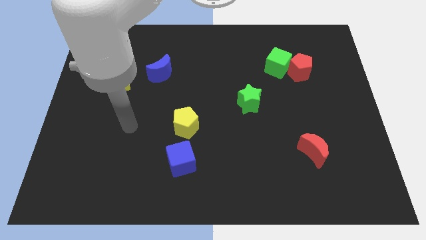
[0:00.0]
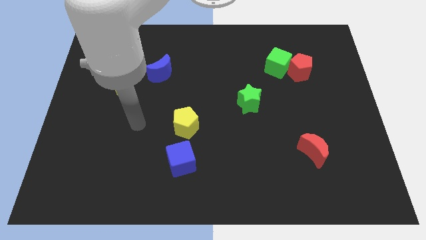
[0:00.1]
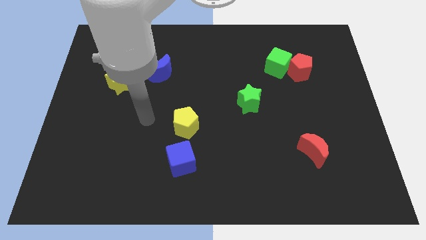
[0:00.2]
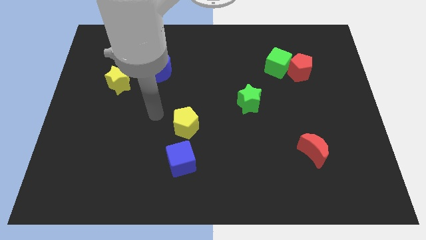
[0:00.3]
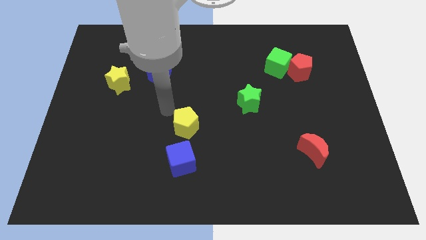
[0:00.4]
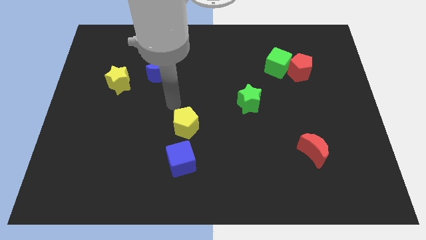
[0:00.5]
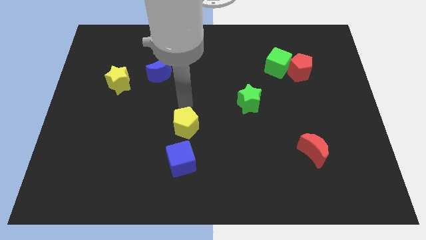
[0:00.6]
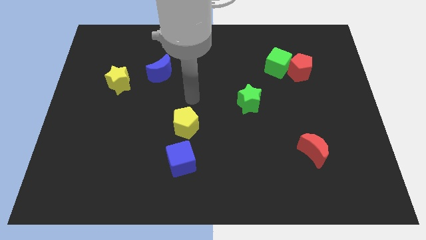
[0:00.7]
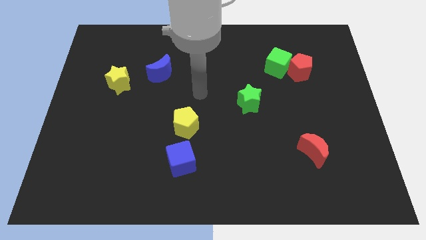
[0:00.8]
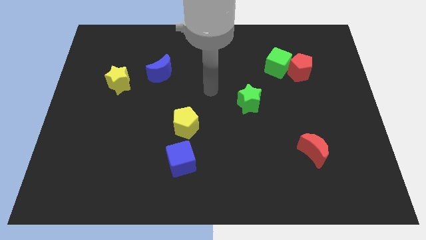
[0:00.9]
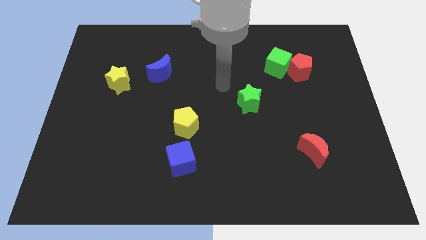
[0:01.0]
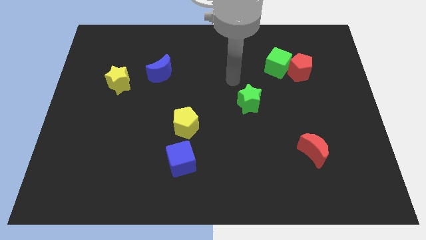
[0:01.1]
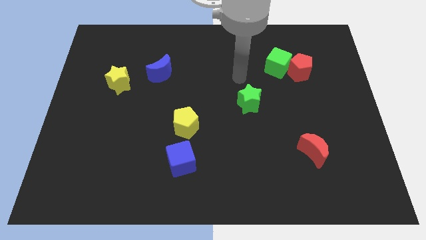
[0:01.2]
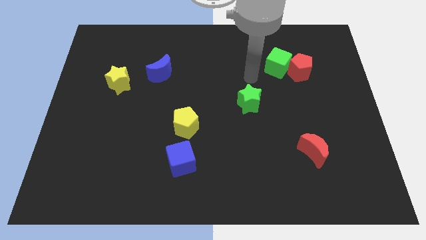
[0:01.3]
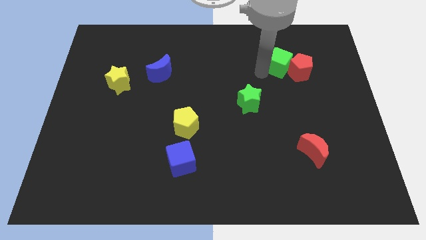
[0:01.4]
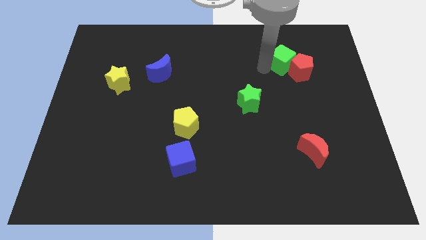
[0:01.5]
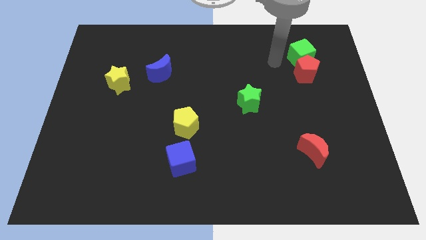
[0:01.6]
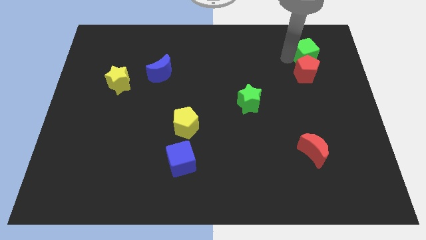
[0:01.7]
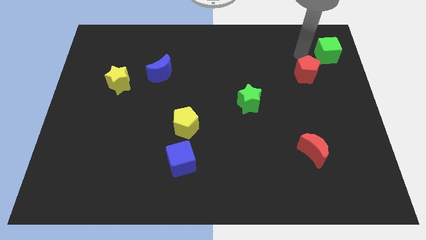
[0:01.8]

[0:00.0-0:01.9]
separate the red pentagon from the green cube

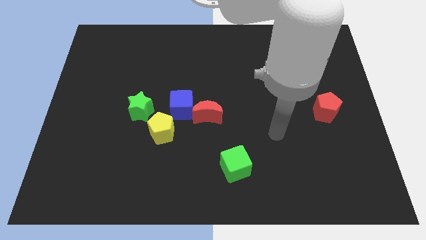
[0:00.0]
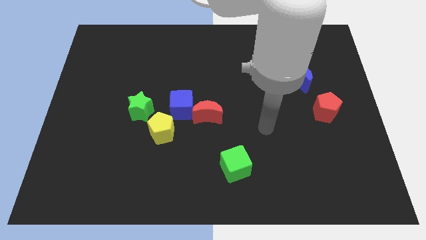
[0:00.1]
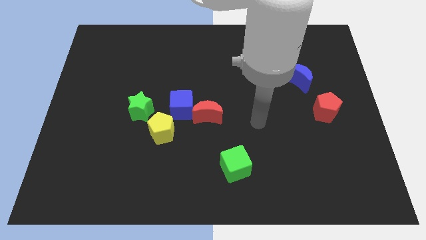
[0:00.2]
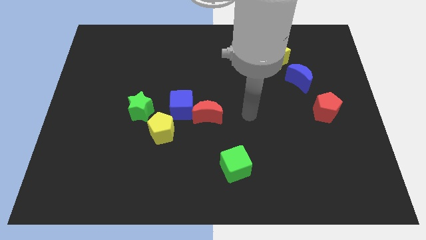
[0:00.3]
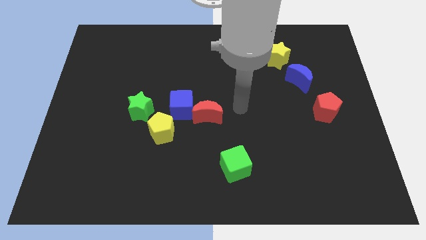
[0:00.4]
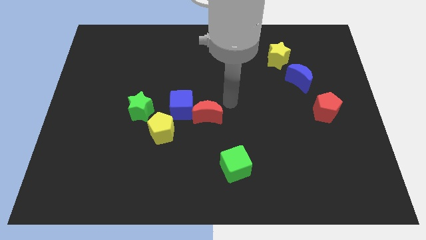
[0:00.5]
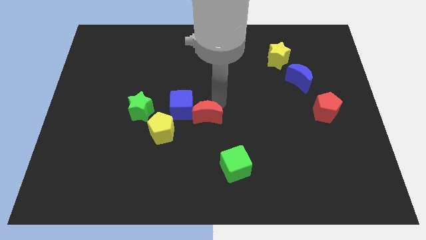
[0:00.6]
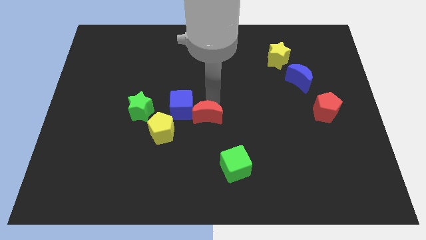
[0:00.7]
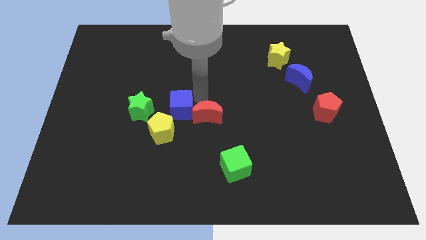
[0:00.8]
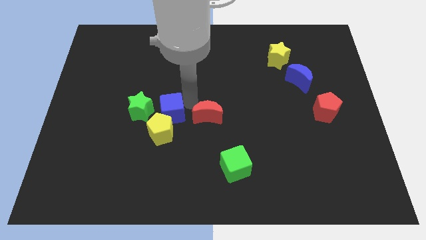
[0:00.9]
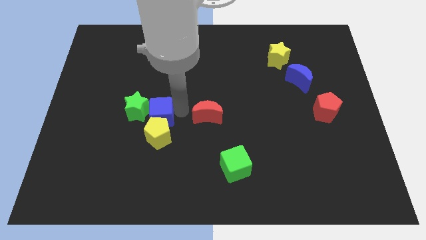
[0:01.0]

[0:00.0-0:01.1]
separate the red moon from the blue cube

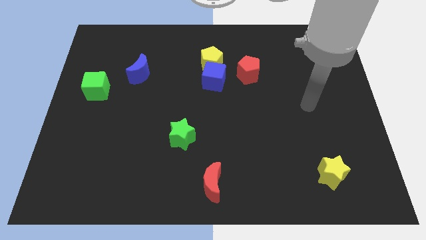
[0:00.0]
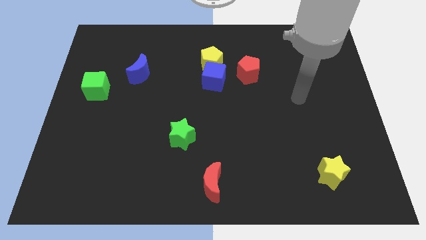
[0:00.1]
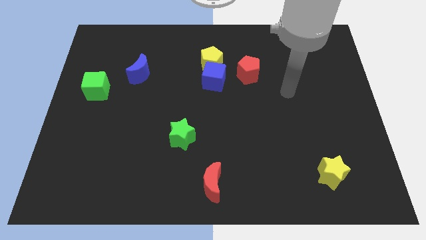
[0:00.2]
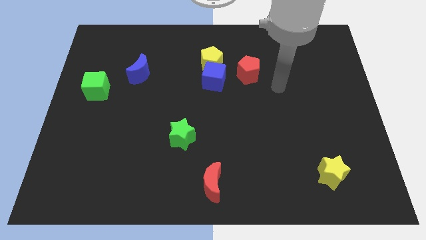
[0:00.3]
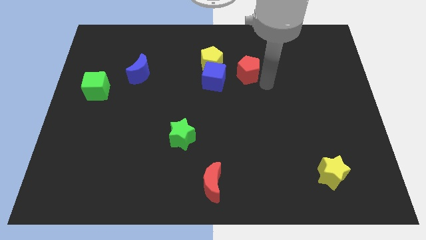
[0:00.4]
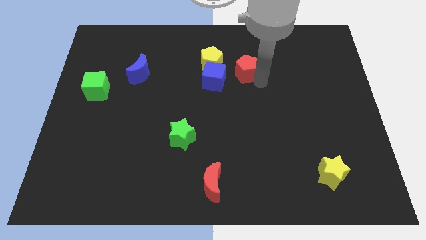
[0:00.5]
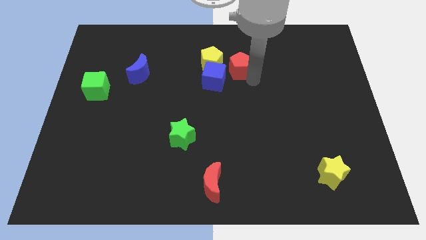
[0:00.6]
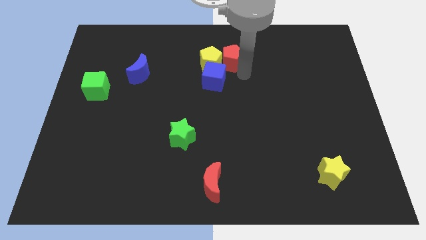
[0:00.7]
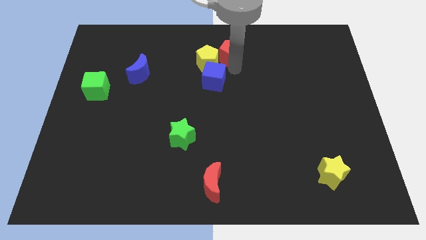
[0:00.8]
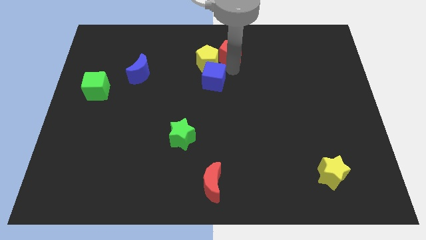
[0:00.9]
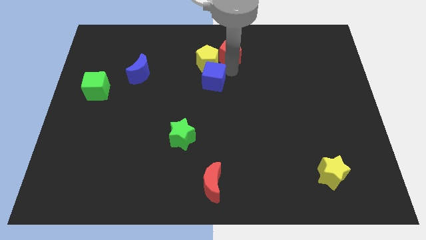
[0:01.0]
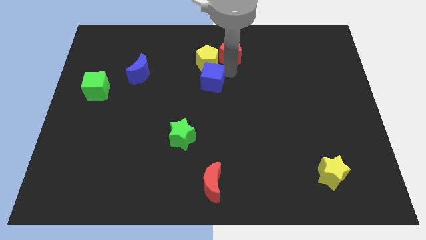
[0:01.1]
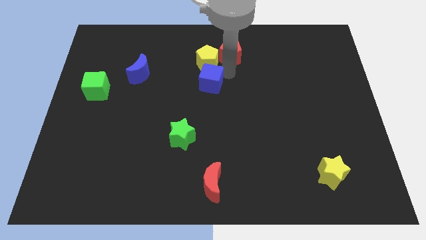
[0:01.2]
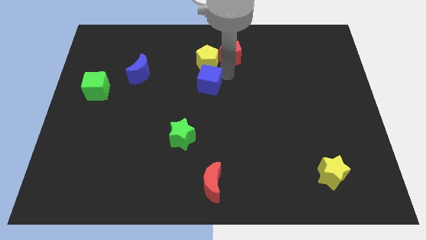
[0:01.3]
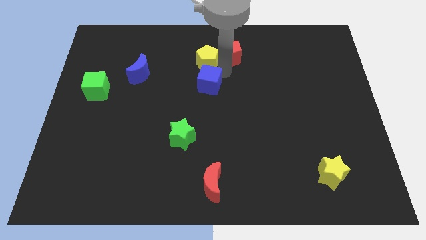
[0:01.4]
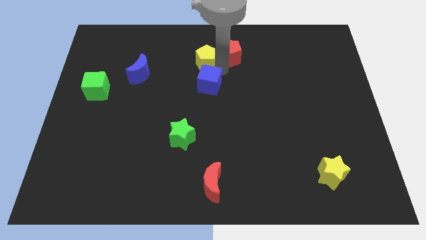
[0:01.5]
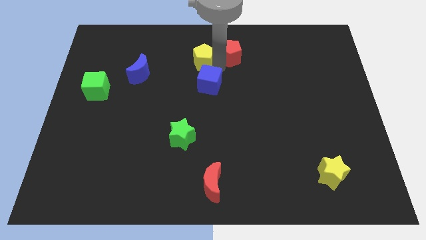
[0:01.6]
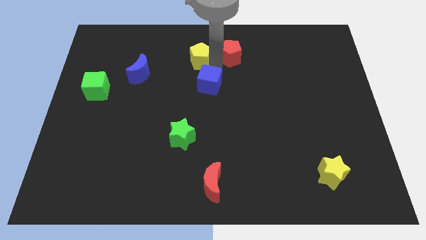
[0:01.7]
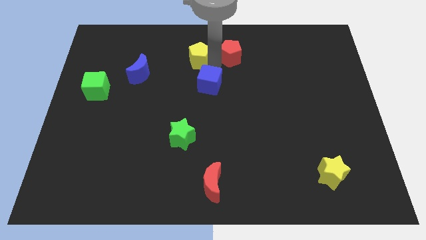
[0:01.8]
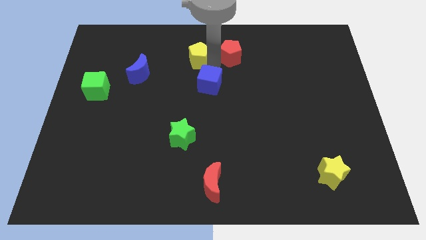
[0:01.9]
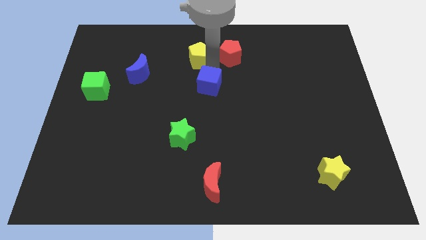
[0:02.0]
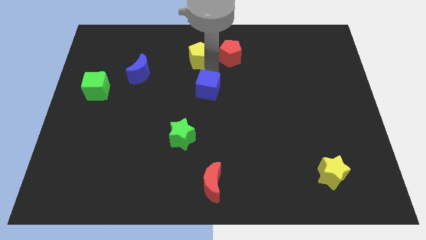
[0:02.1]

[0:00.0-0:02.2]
pull the blue cube apart from the yellow pentagon and red pentagon

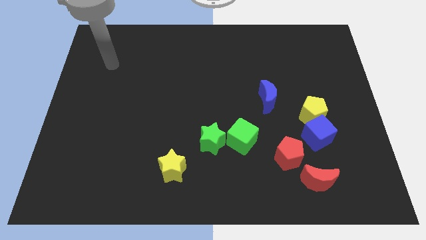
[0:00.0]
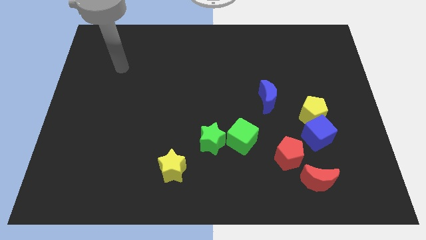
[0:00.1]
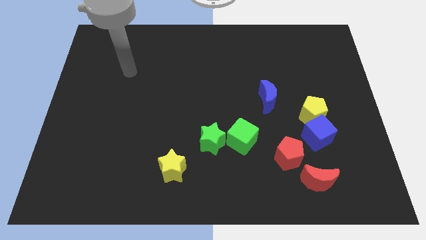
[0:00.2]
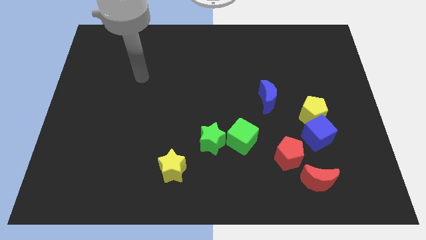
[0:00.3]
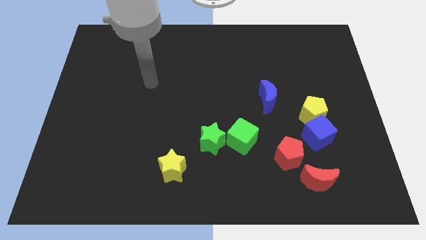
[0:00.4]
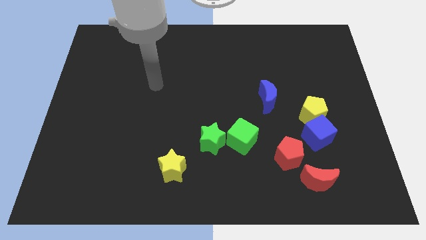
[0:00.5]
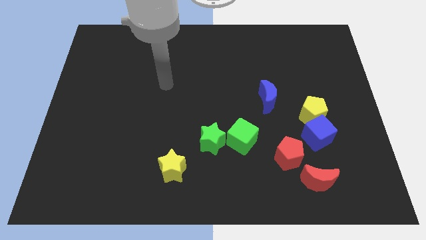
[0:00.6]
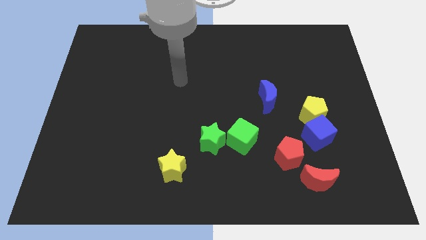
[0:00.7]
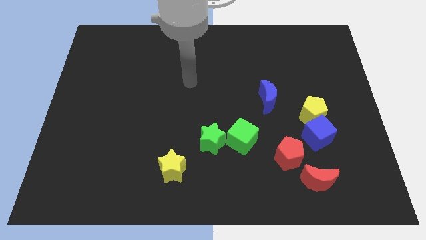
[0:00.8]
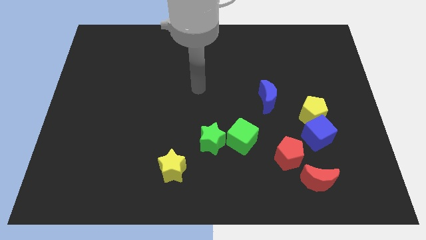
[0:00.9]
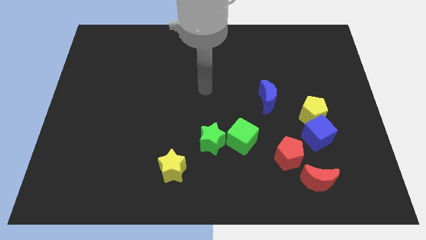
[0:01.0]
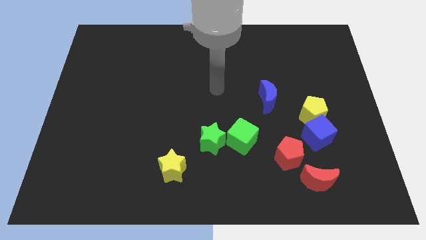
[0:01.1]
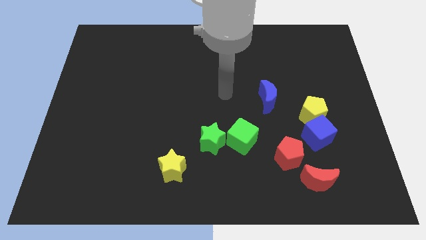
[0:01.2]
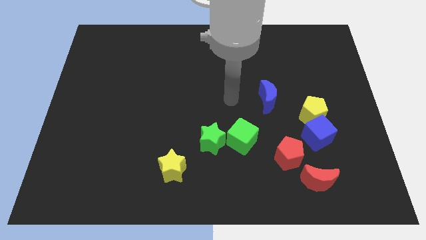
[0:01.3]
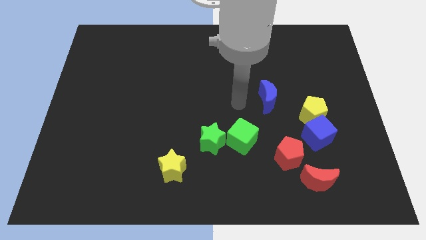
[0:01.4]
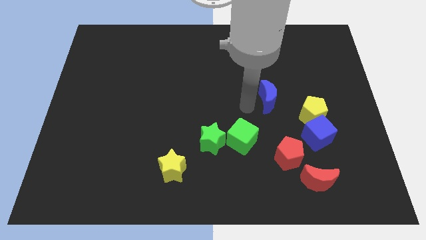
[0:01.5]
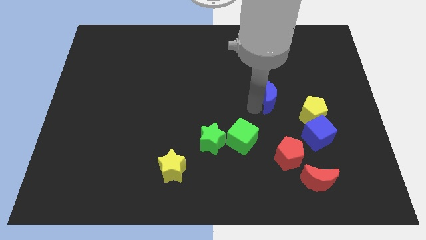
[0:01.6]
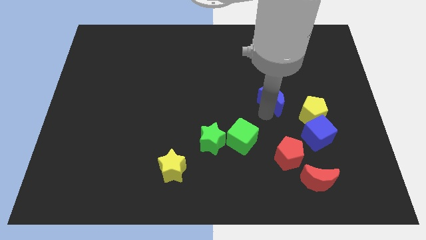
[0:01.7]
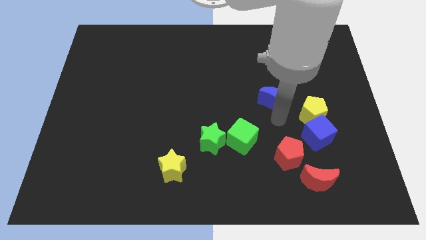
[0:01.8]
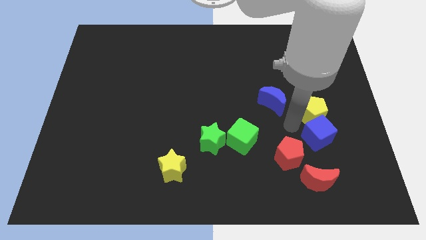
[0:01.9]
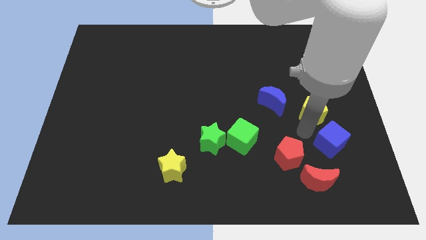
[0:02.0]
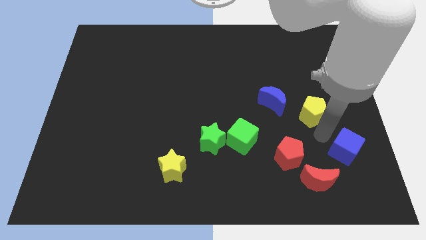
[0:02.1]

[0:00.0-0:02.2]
move the yellow pentagon away from the blue cube

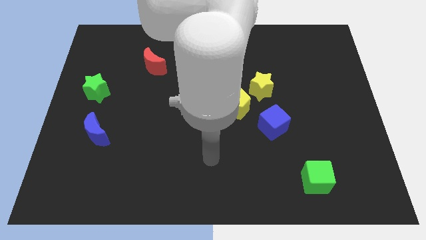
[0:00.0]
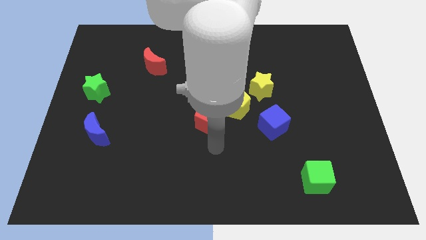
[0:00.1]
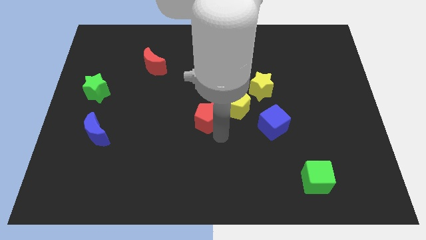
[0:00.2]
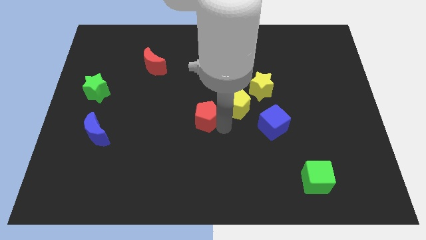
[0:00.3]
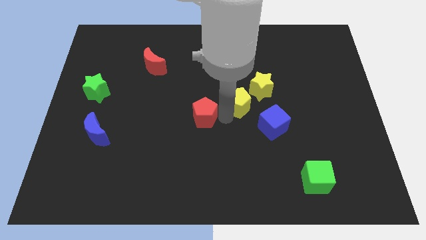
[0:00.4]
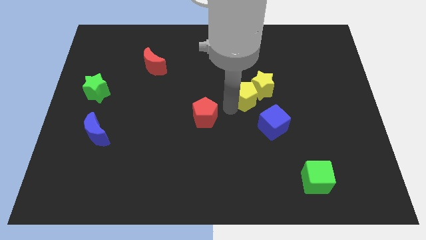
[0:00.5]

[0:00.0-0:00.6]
separate the red pentagon from the yellow pentagon

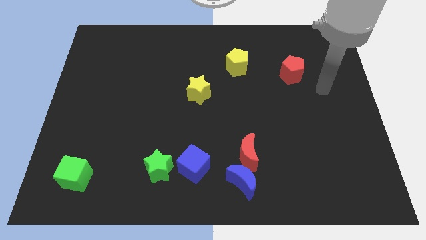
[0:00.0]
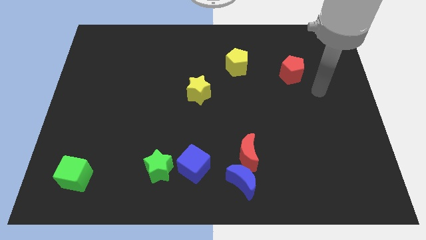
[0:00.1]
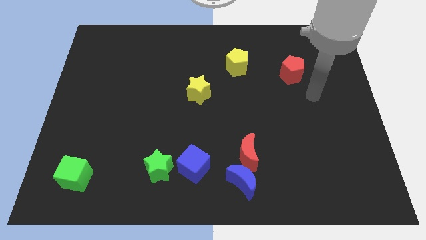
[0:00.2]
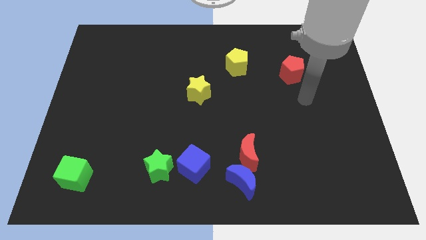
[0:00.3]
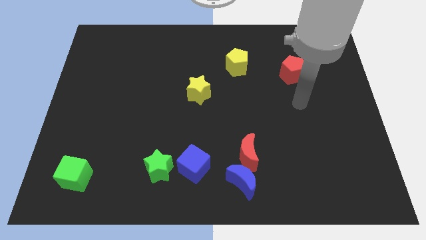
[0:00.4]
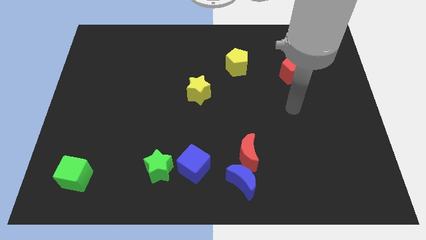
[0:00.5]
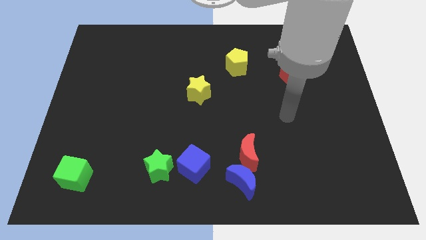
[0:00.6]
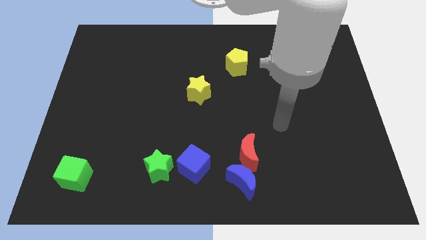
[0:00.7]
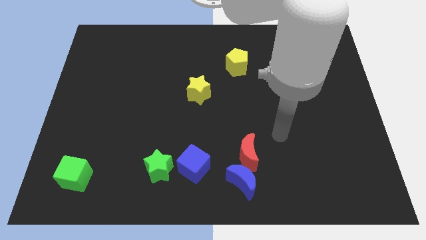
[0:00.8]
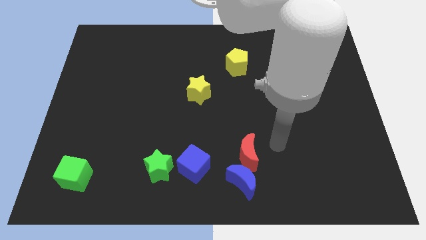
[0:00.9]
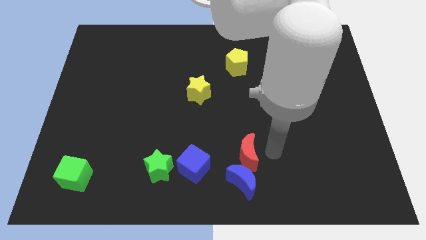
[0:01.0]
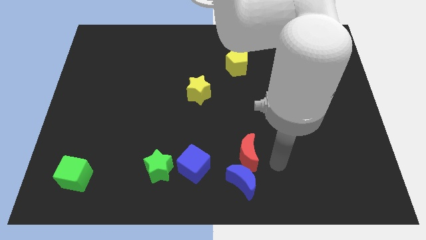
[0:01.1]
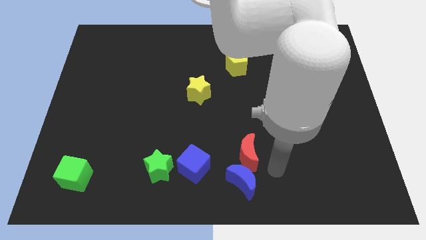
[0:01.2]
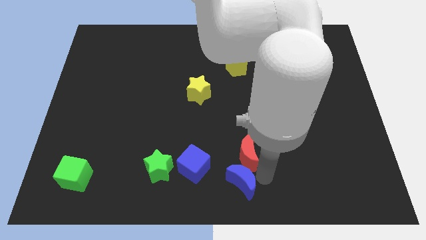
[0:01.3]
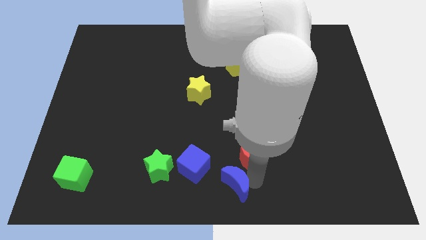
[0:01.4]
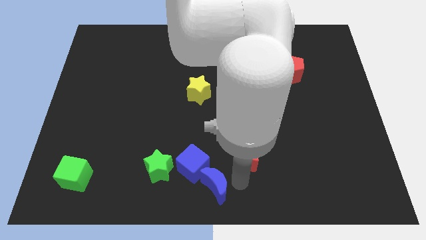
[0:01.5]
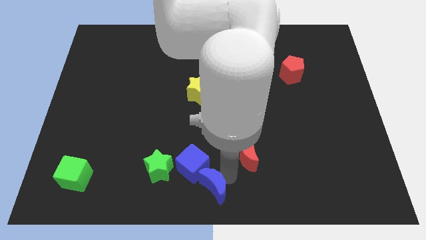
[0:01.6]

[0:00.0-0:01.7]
separate the red moon from the blue moon
